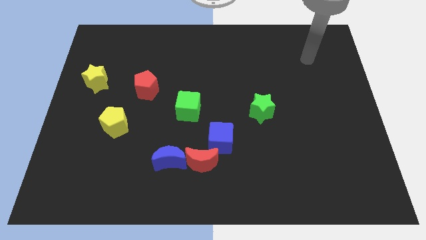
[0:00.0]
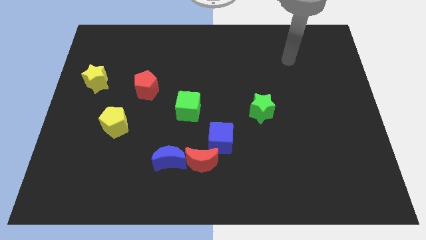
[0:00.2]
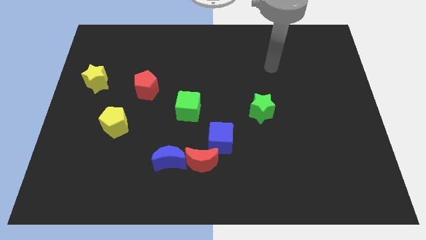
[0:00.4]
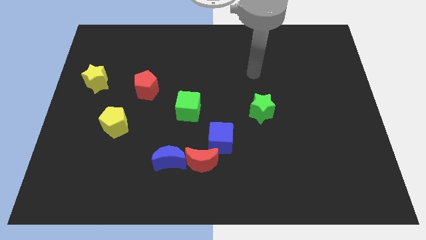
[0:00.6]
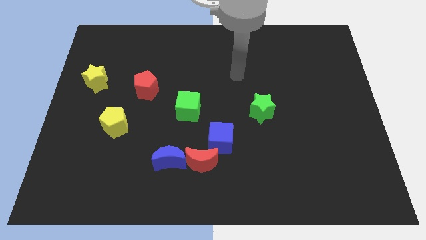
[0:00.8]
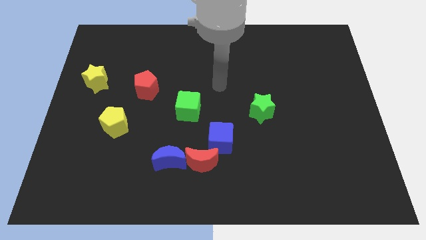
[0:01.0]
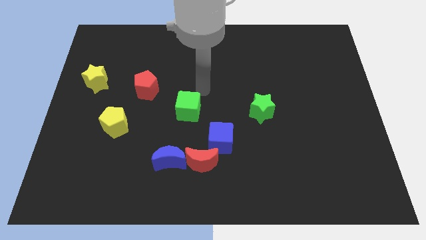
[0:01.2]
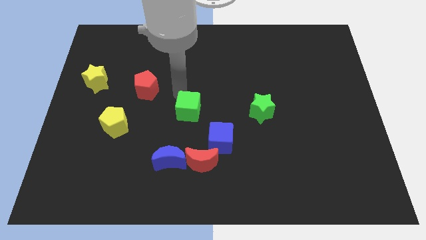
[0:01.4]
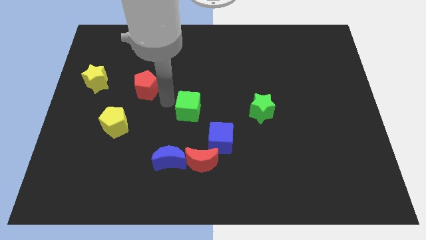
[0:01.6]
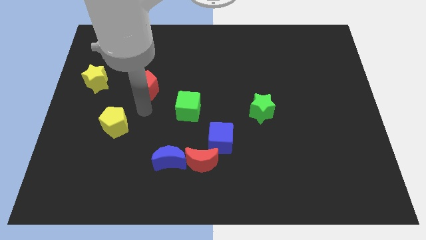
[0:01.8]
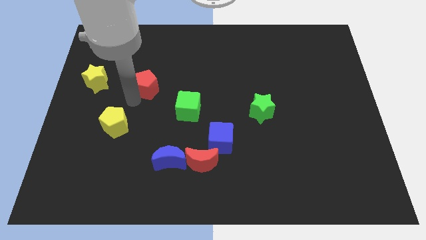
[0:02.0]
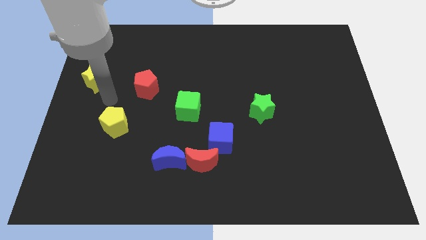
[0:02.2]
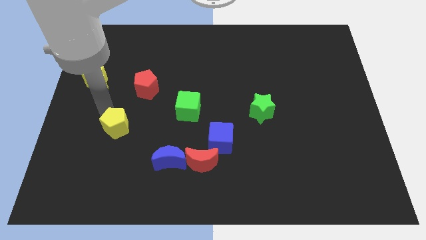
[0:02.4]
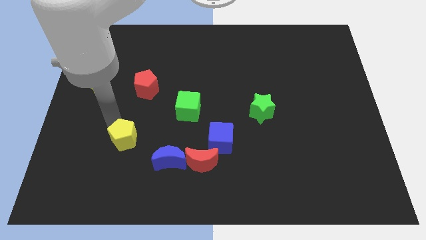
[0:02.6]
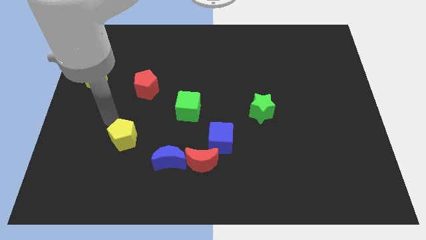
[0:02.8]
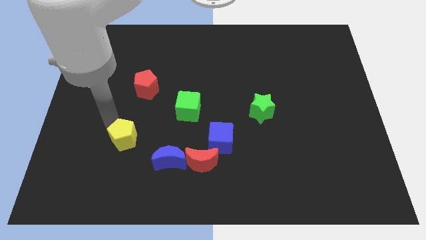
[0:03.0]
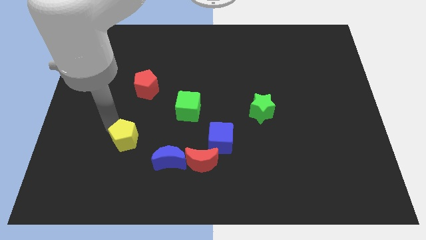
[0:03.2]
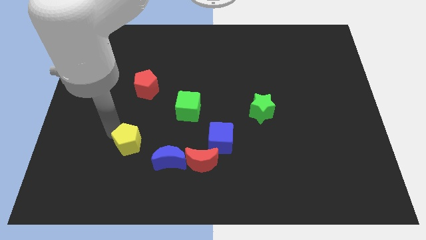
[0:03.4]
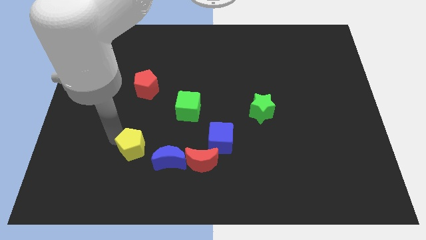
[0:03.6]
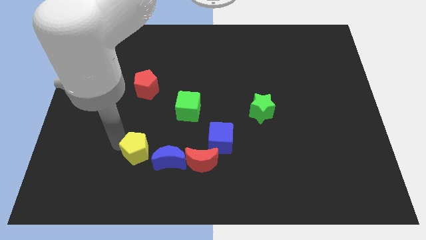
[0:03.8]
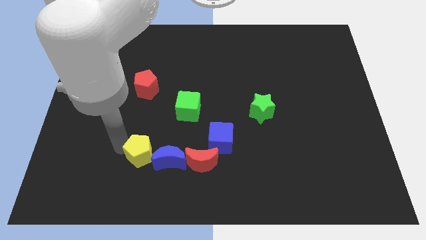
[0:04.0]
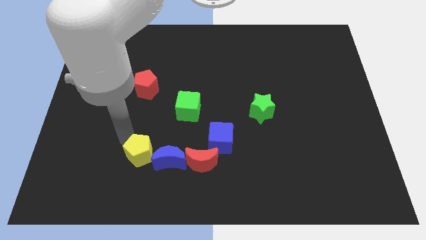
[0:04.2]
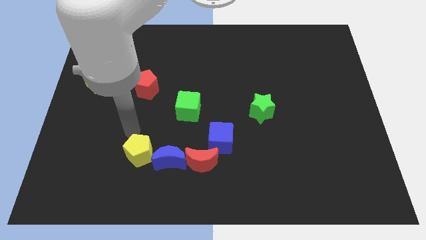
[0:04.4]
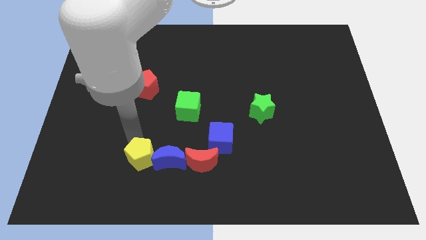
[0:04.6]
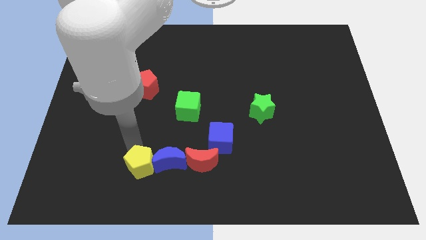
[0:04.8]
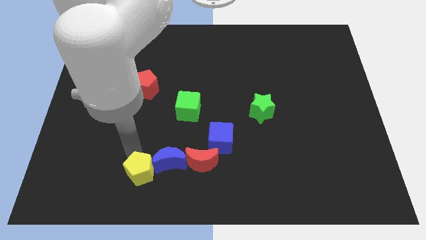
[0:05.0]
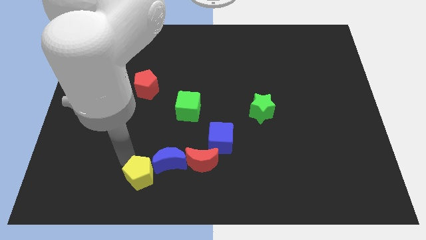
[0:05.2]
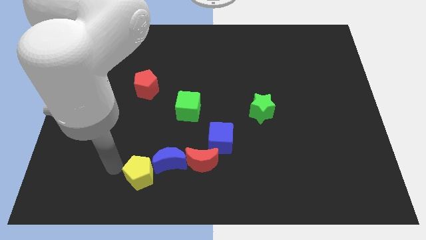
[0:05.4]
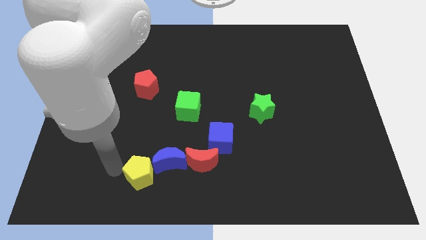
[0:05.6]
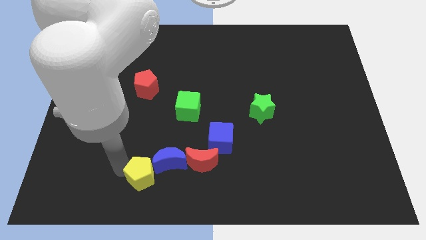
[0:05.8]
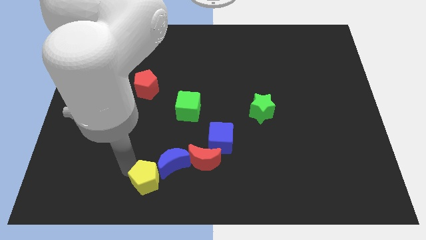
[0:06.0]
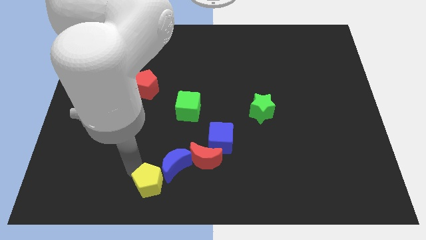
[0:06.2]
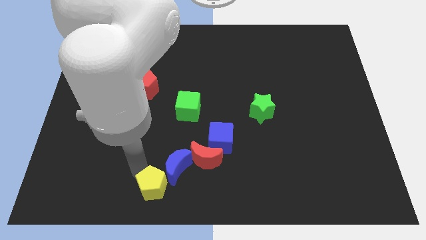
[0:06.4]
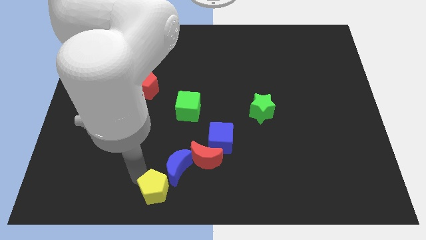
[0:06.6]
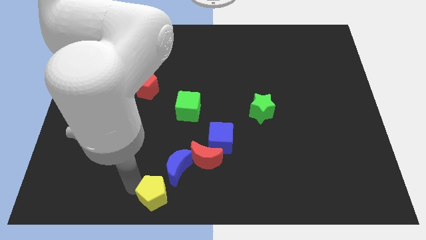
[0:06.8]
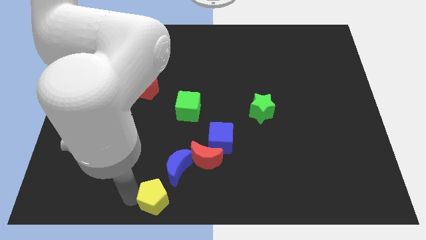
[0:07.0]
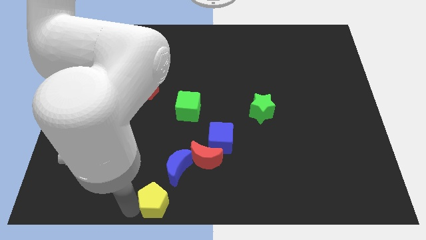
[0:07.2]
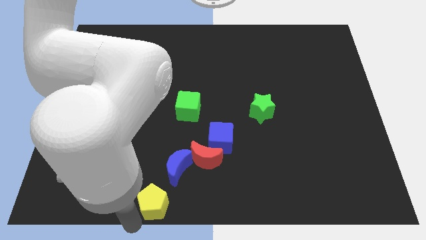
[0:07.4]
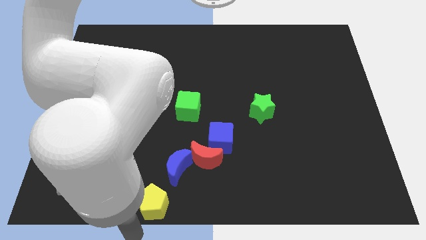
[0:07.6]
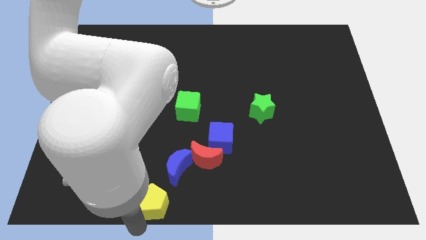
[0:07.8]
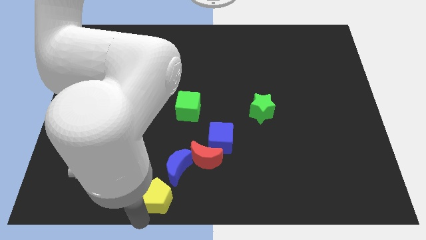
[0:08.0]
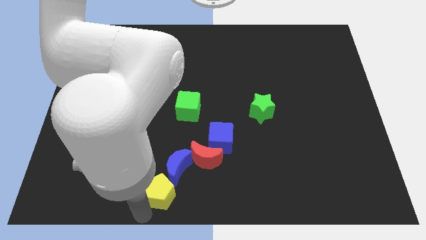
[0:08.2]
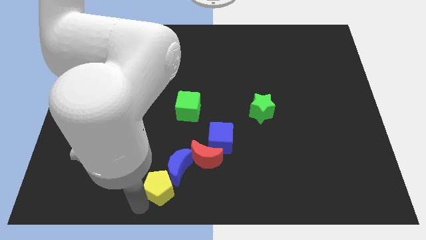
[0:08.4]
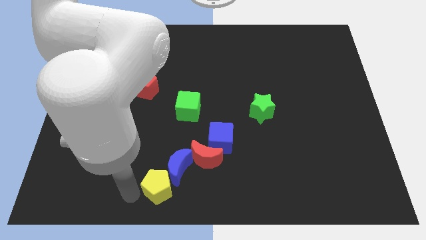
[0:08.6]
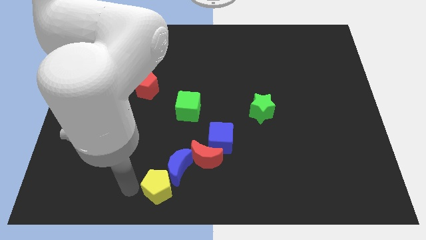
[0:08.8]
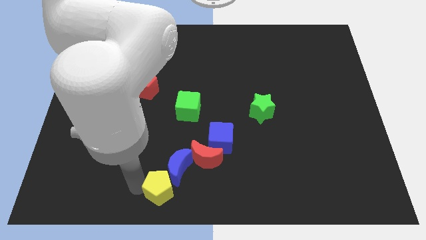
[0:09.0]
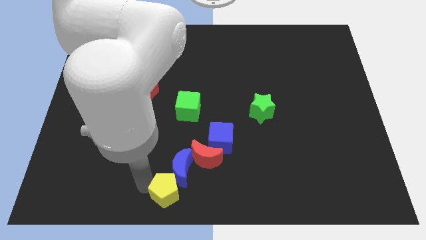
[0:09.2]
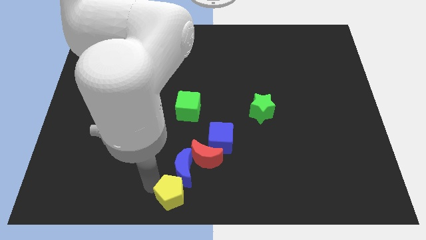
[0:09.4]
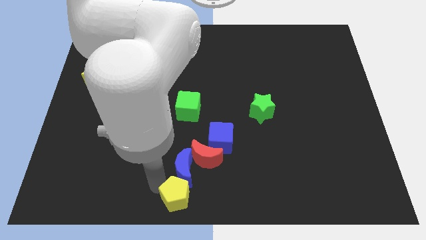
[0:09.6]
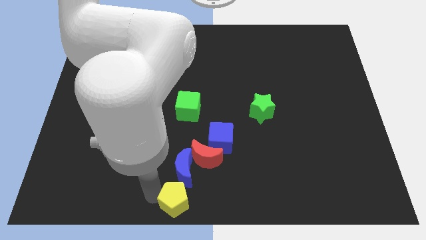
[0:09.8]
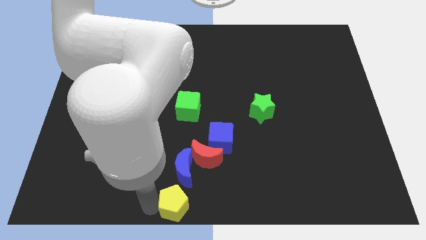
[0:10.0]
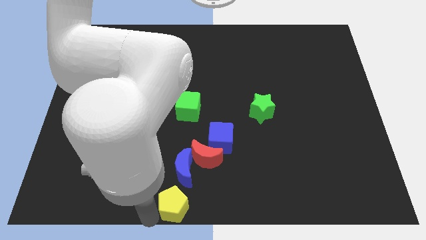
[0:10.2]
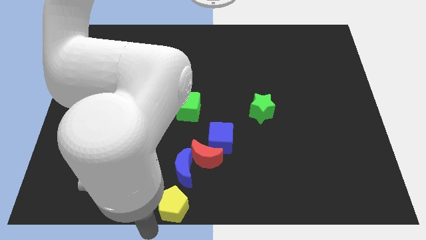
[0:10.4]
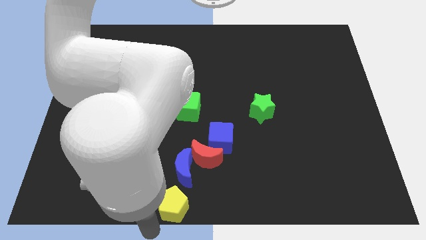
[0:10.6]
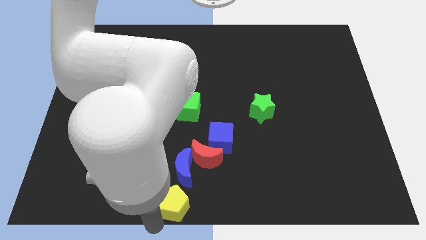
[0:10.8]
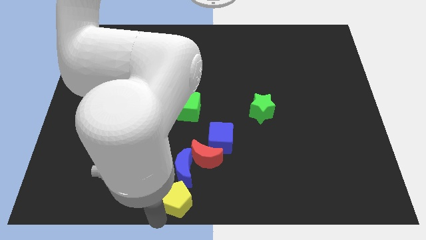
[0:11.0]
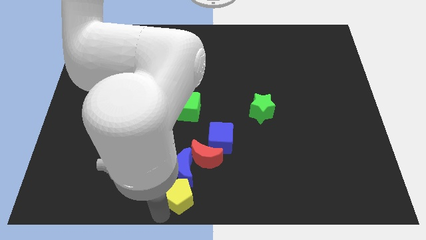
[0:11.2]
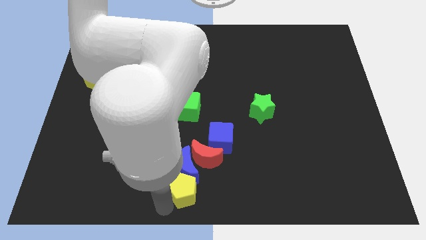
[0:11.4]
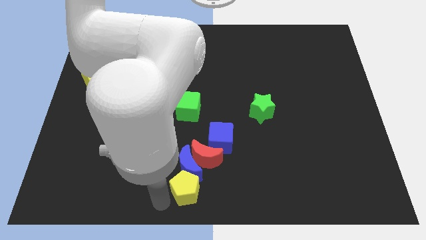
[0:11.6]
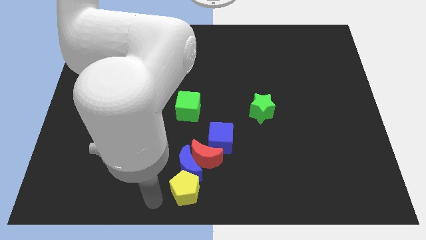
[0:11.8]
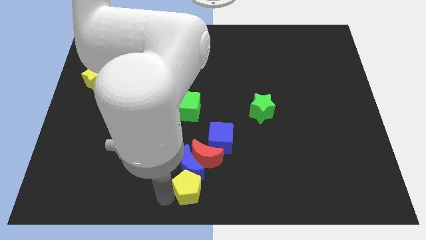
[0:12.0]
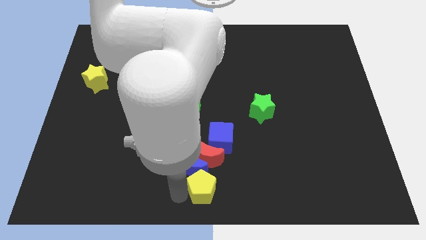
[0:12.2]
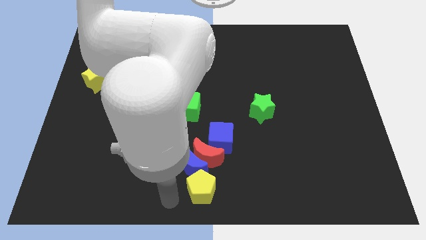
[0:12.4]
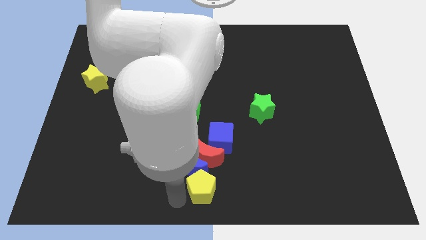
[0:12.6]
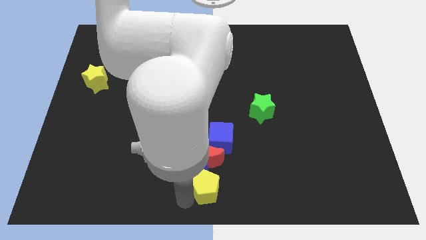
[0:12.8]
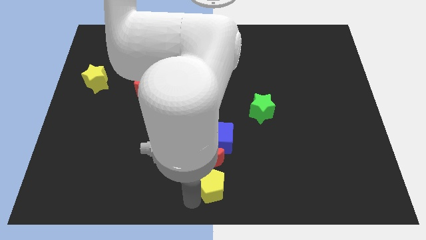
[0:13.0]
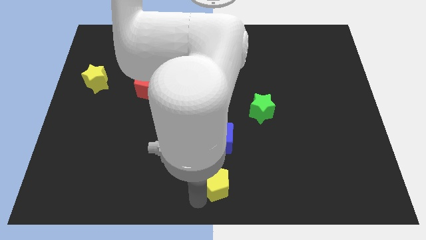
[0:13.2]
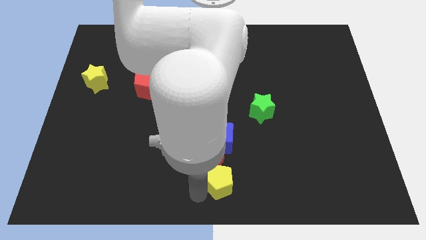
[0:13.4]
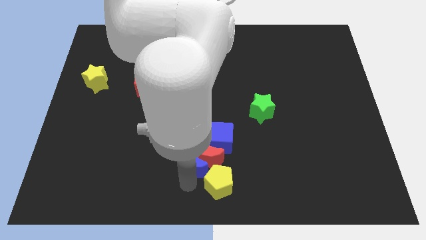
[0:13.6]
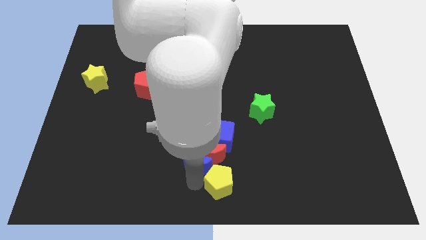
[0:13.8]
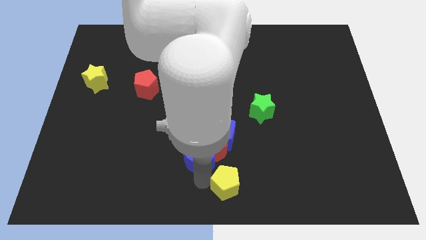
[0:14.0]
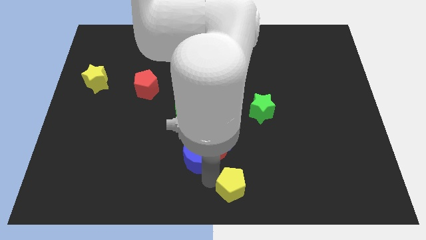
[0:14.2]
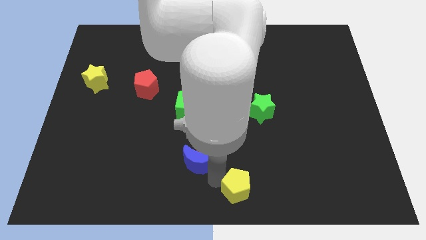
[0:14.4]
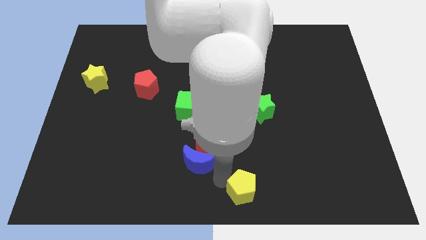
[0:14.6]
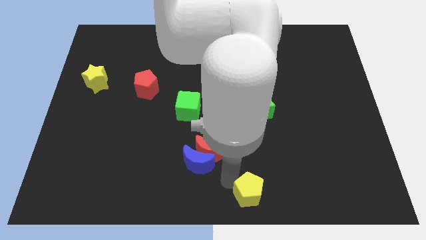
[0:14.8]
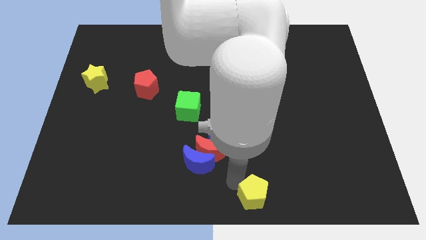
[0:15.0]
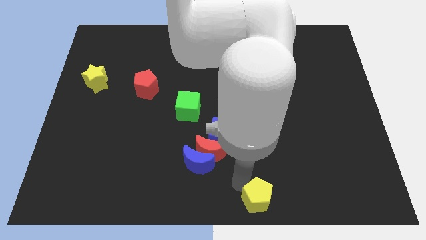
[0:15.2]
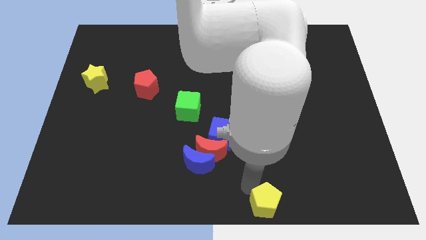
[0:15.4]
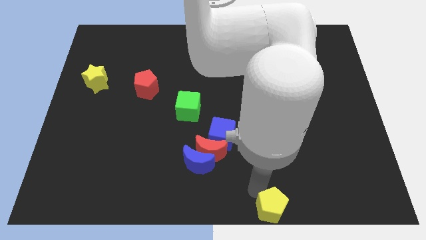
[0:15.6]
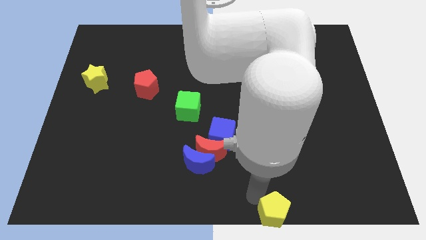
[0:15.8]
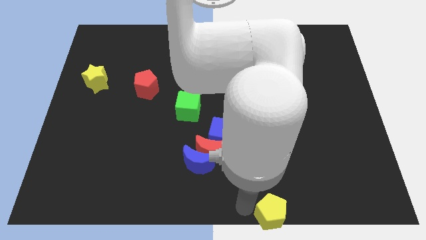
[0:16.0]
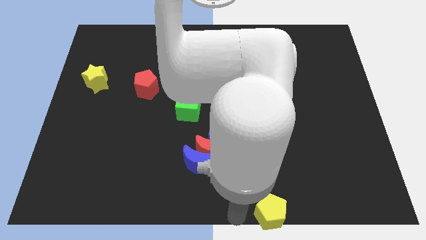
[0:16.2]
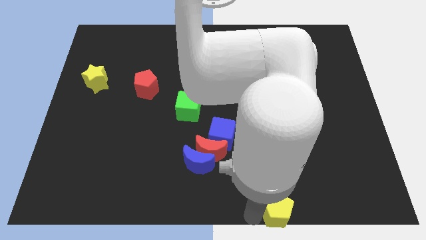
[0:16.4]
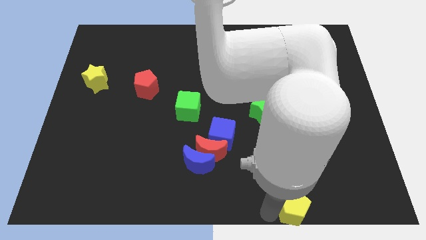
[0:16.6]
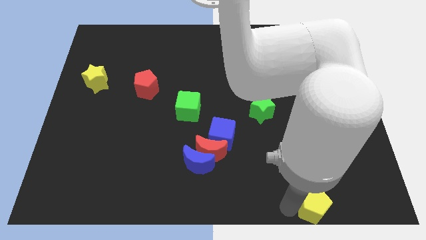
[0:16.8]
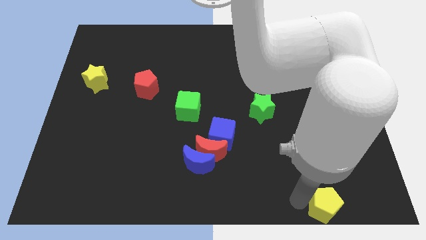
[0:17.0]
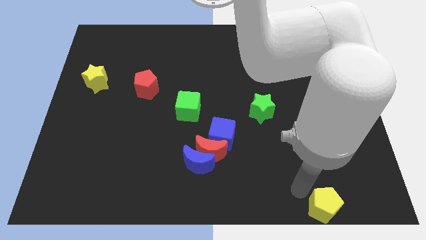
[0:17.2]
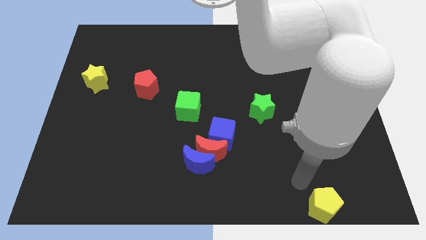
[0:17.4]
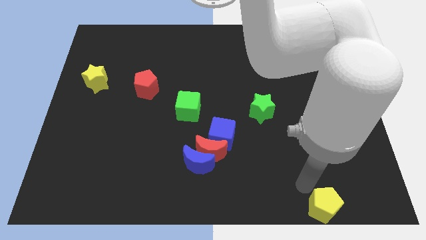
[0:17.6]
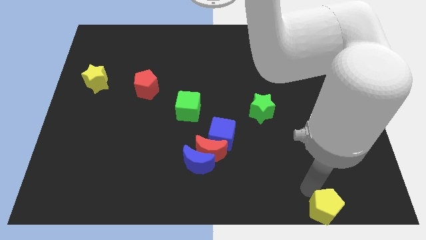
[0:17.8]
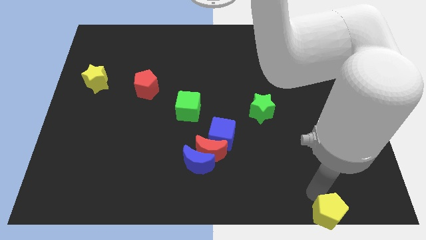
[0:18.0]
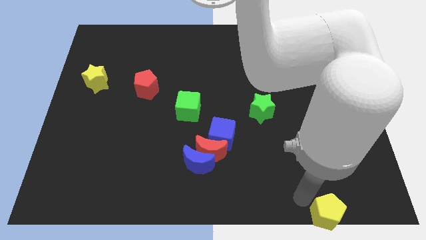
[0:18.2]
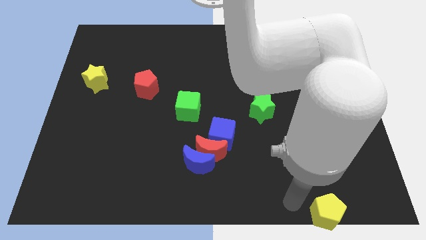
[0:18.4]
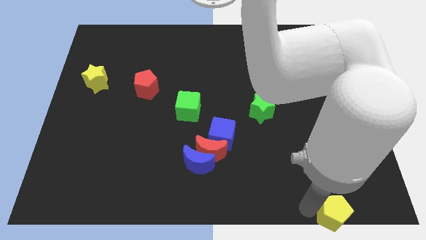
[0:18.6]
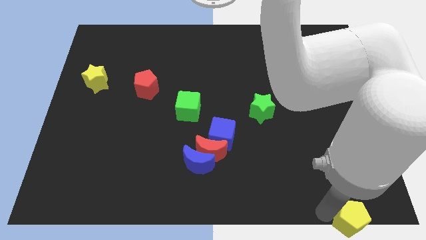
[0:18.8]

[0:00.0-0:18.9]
move the yellow pentagon to the bottom right corner
